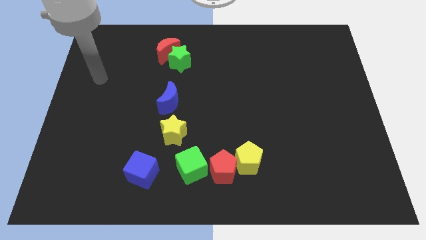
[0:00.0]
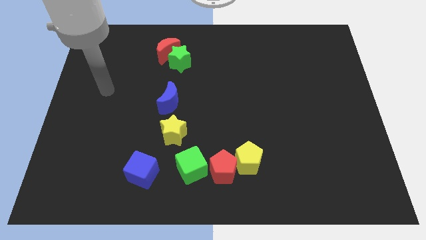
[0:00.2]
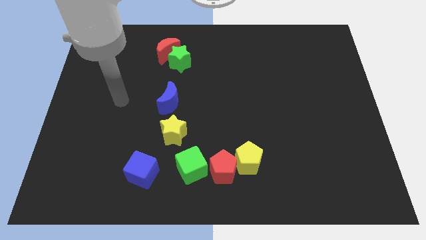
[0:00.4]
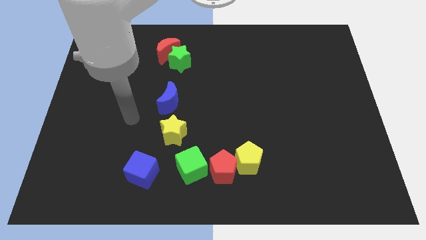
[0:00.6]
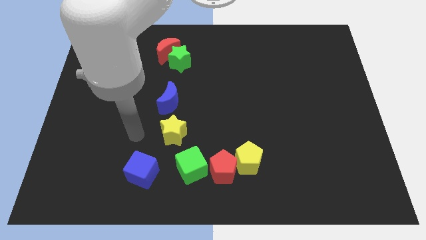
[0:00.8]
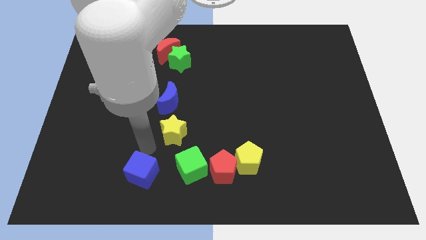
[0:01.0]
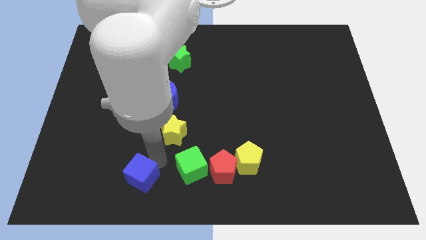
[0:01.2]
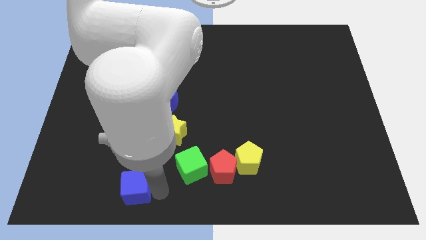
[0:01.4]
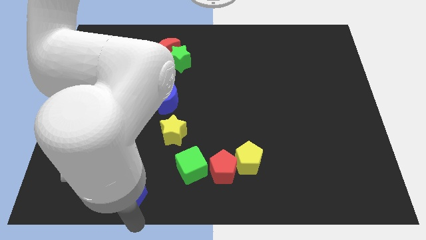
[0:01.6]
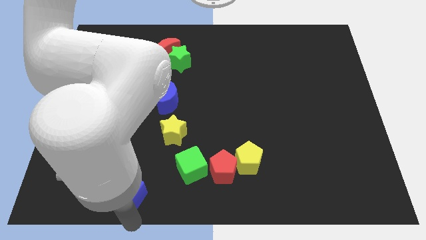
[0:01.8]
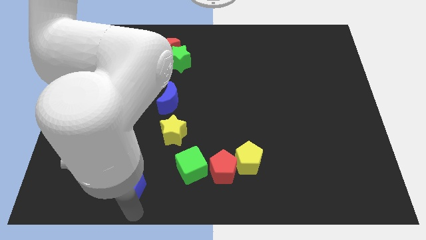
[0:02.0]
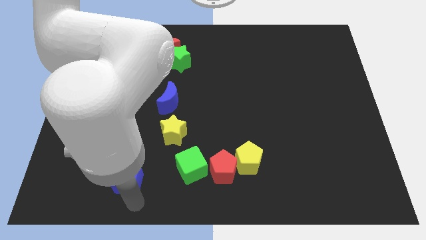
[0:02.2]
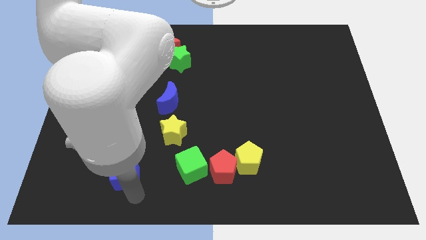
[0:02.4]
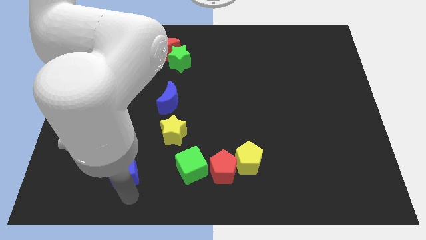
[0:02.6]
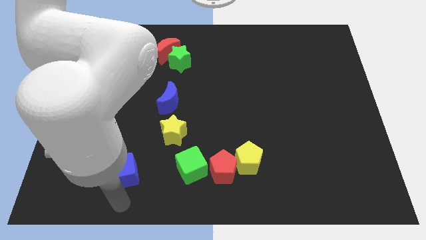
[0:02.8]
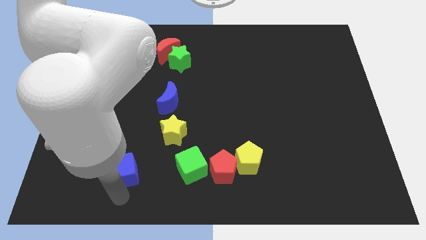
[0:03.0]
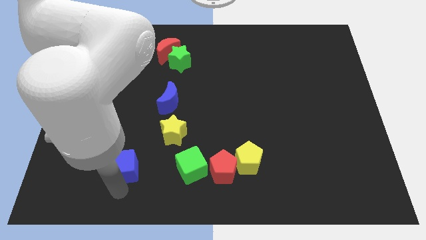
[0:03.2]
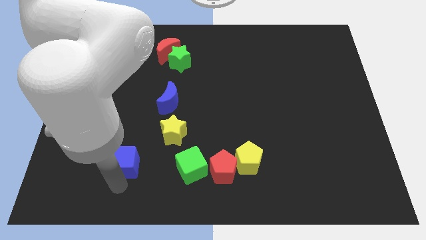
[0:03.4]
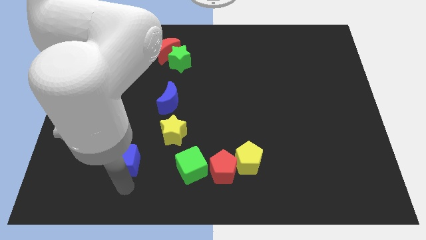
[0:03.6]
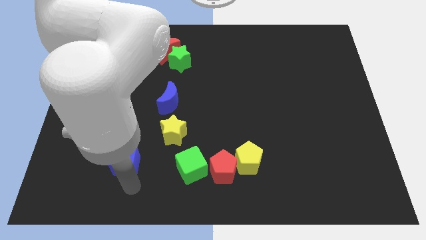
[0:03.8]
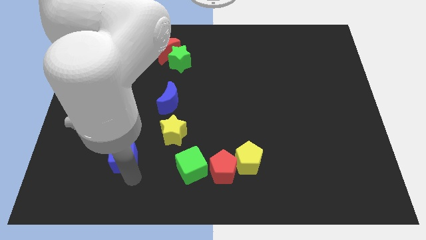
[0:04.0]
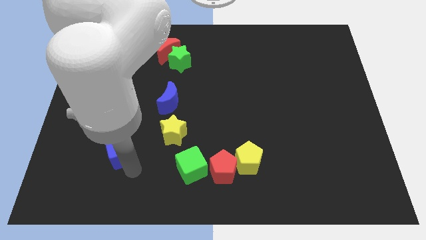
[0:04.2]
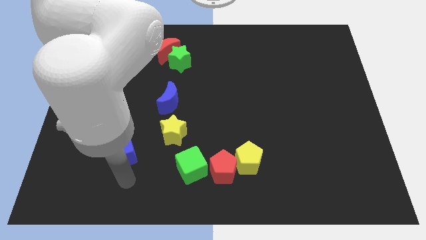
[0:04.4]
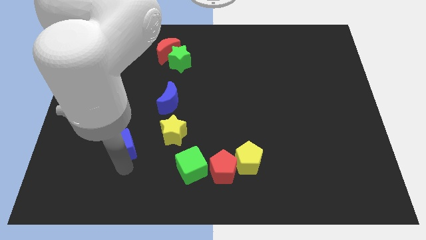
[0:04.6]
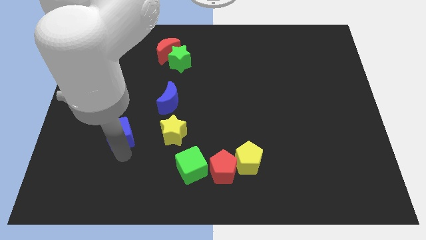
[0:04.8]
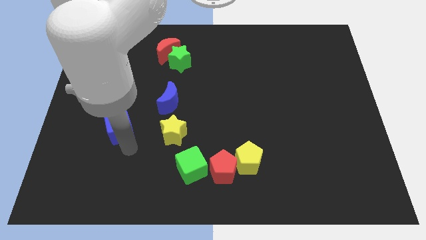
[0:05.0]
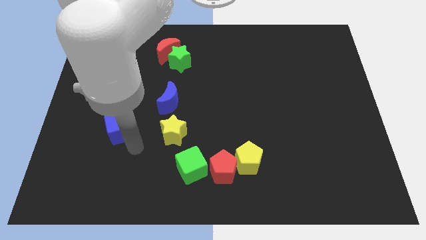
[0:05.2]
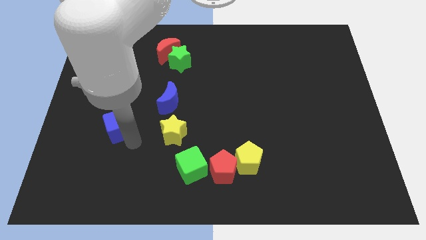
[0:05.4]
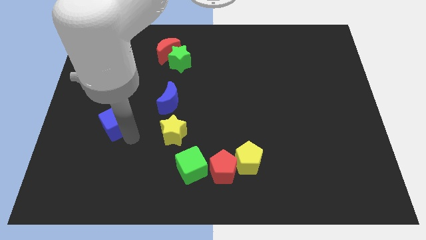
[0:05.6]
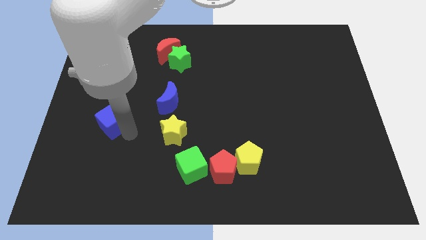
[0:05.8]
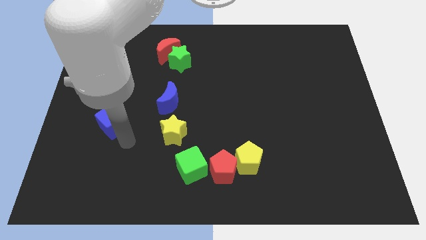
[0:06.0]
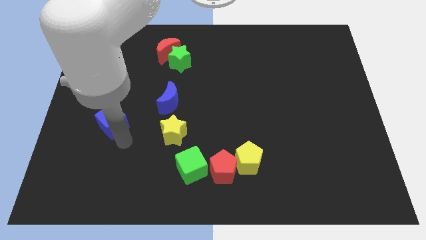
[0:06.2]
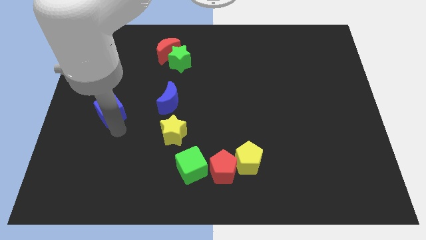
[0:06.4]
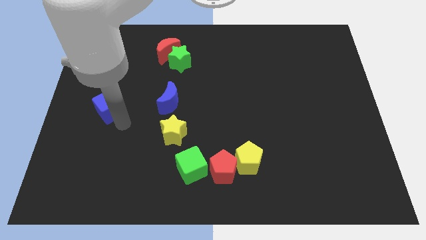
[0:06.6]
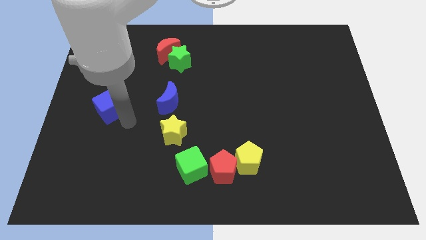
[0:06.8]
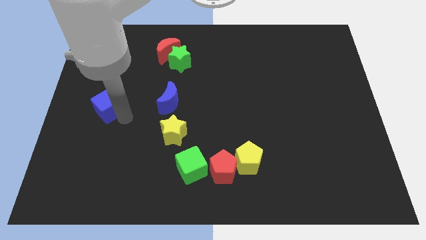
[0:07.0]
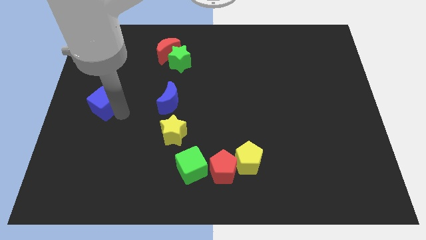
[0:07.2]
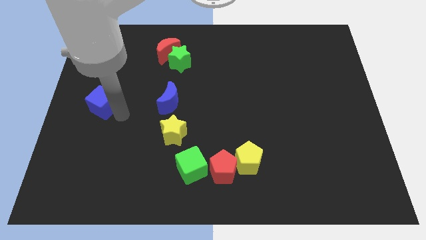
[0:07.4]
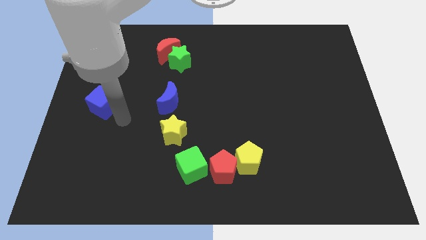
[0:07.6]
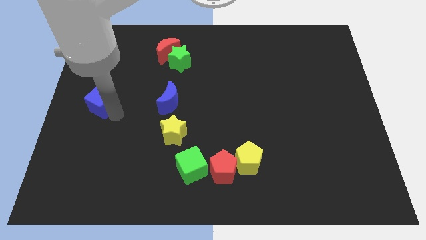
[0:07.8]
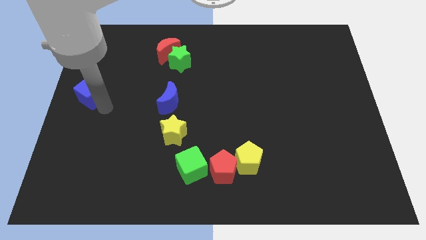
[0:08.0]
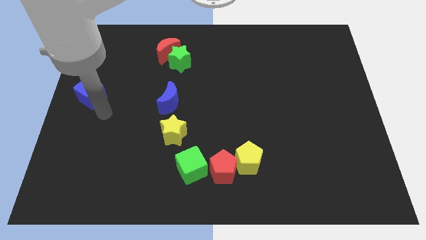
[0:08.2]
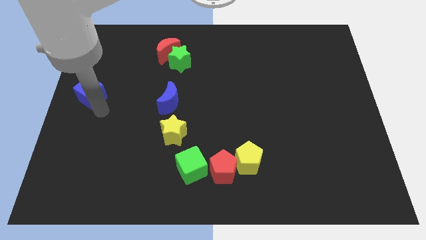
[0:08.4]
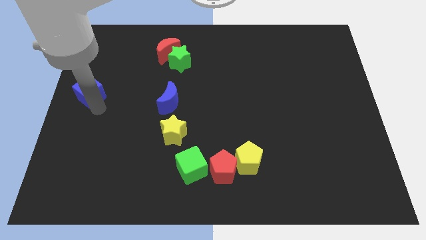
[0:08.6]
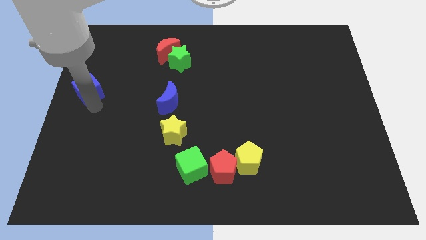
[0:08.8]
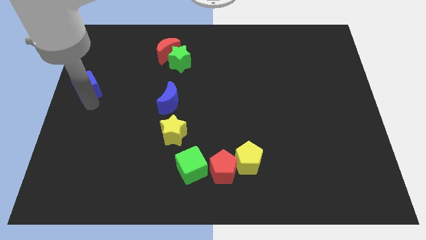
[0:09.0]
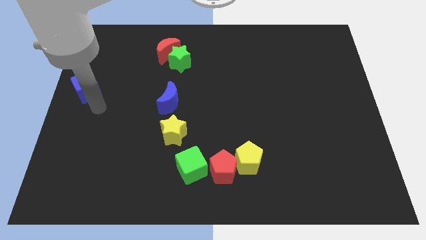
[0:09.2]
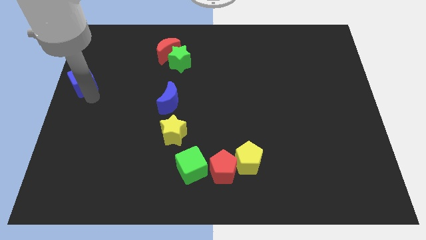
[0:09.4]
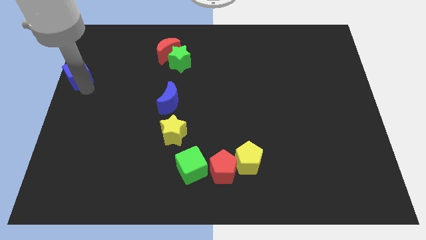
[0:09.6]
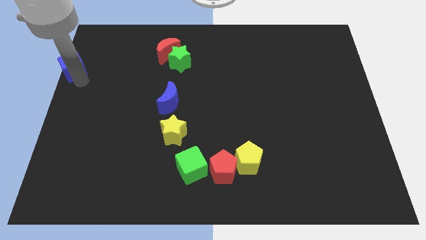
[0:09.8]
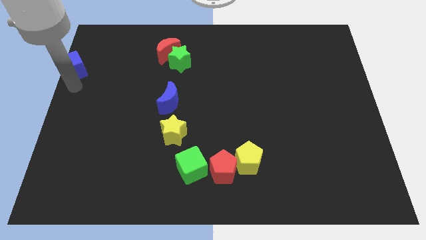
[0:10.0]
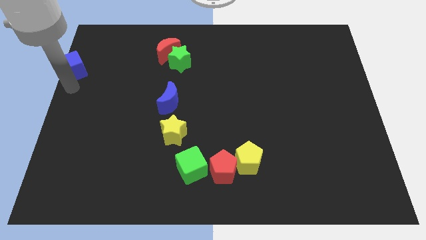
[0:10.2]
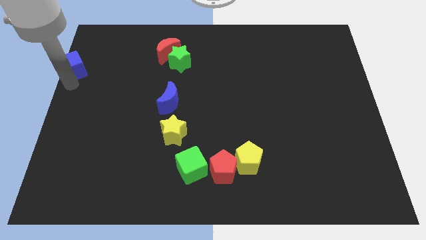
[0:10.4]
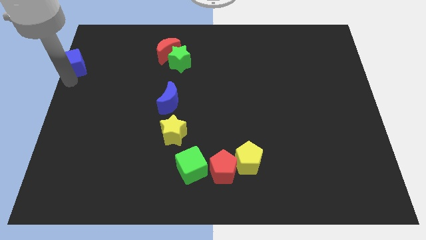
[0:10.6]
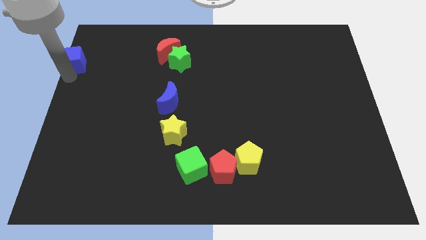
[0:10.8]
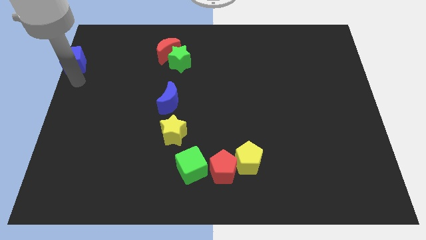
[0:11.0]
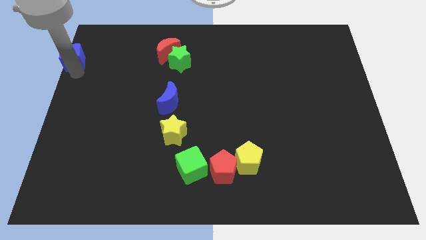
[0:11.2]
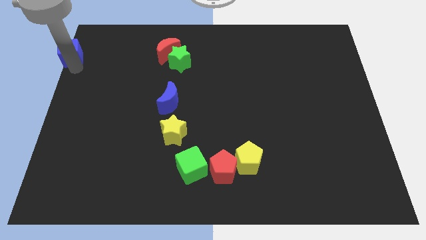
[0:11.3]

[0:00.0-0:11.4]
slide the blue cube to the top left

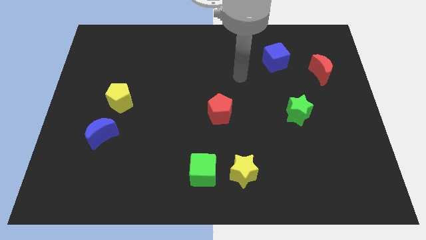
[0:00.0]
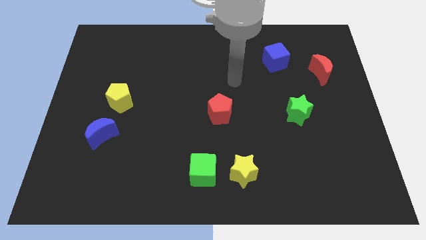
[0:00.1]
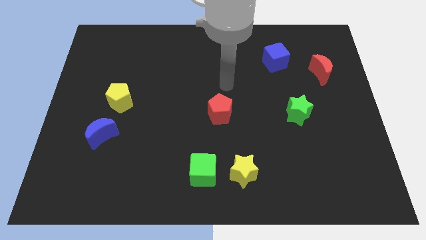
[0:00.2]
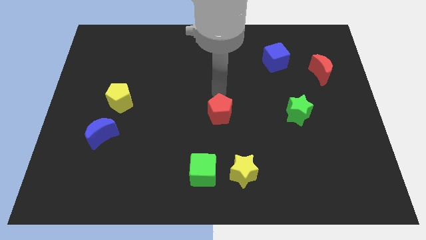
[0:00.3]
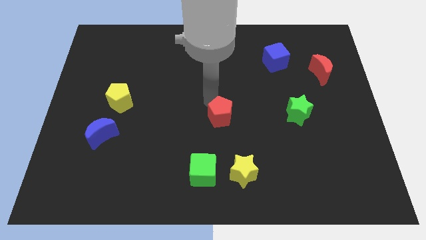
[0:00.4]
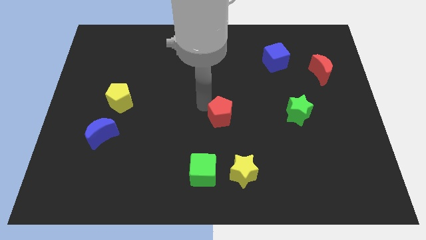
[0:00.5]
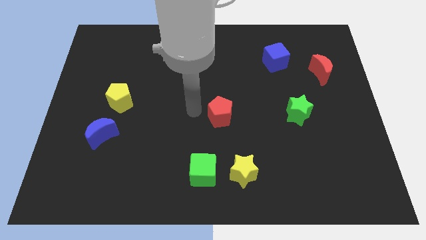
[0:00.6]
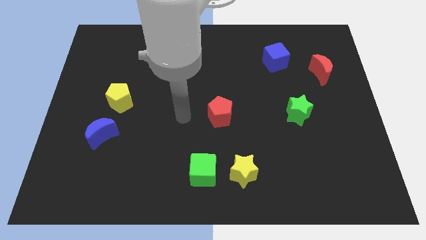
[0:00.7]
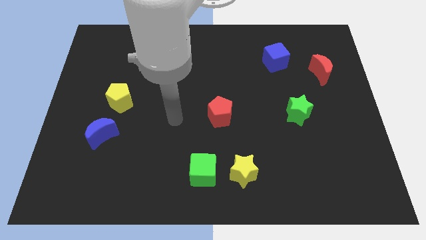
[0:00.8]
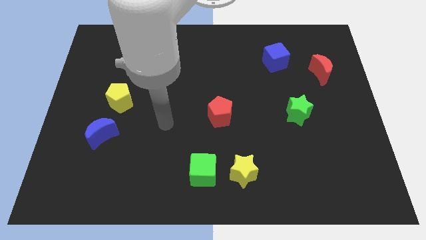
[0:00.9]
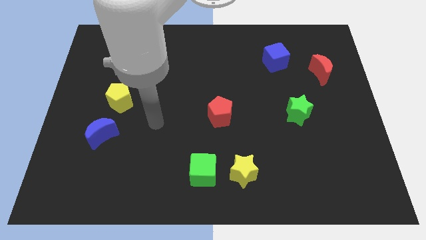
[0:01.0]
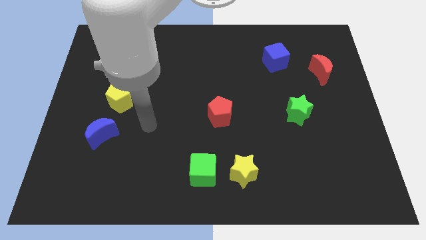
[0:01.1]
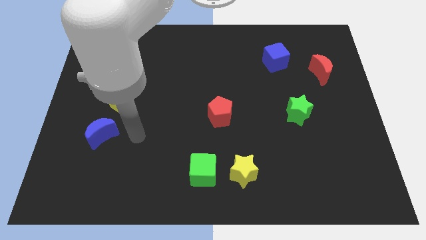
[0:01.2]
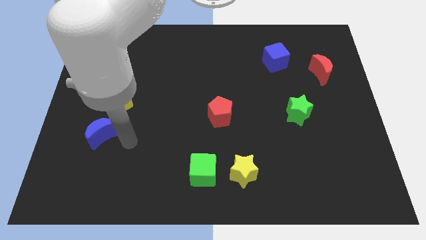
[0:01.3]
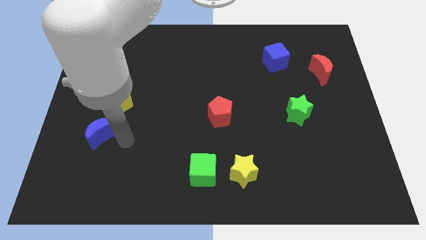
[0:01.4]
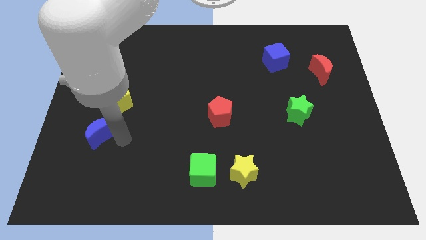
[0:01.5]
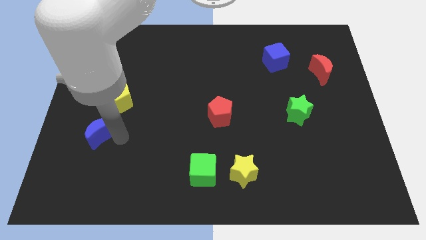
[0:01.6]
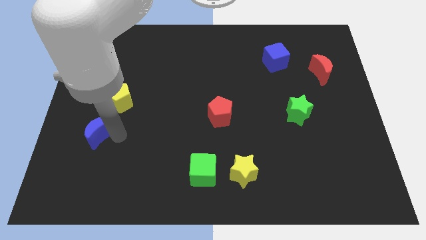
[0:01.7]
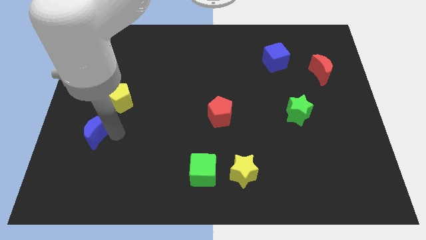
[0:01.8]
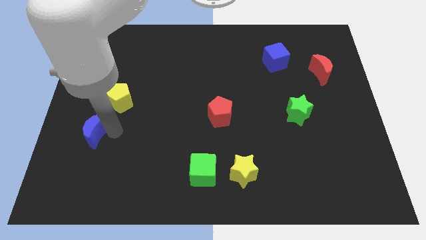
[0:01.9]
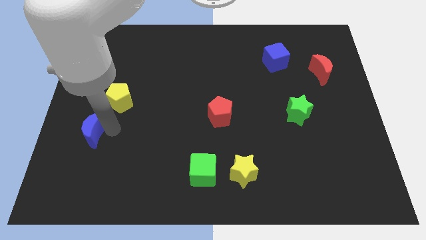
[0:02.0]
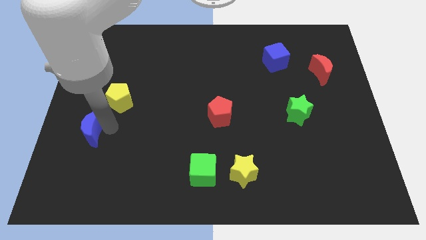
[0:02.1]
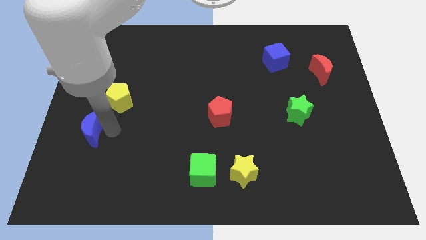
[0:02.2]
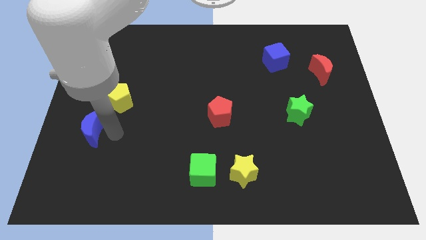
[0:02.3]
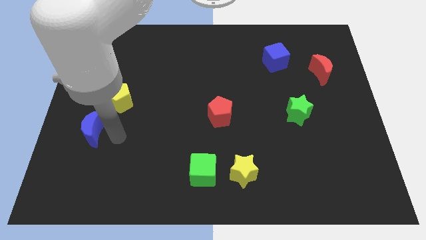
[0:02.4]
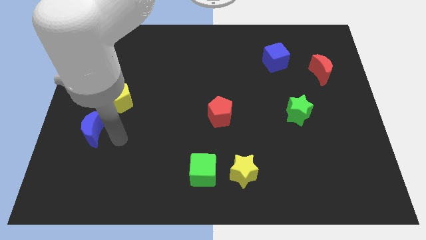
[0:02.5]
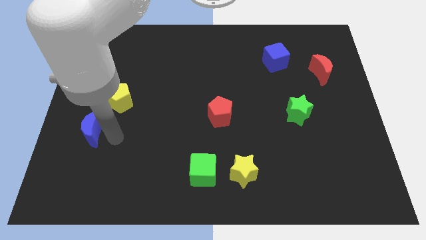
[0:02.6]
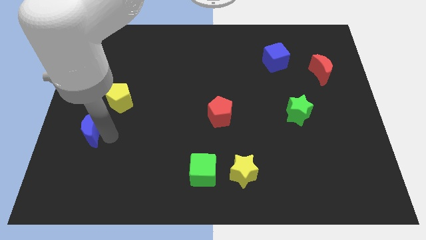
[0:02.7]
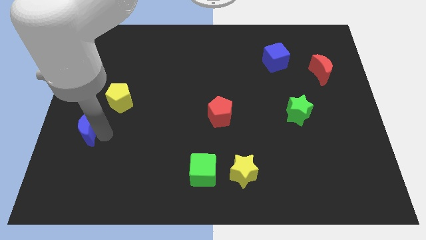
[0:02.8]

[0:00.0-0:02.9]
slide the blue moon to the center left
